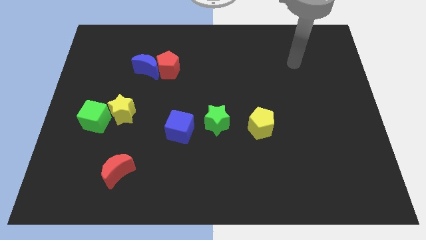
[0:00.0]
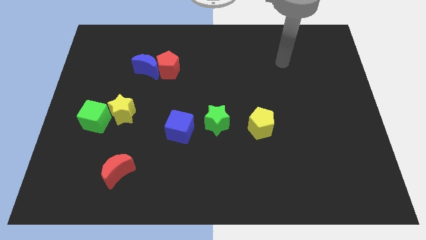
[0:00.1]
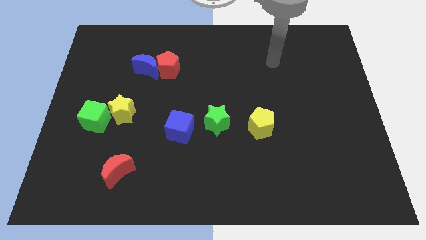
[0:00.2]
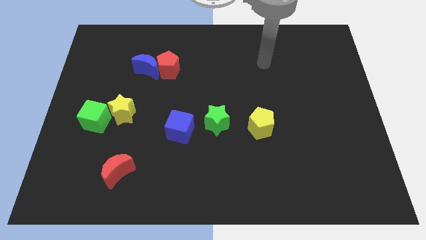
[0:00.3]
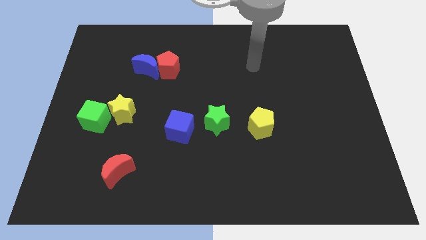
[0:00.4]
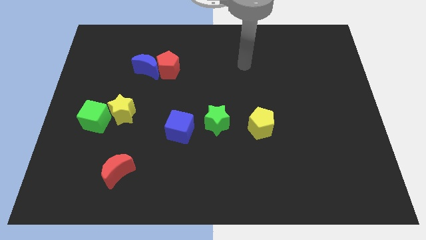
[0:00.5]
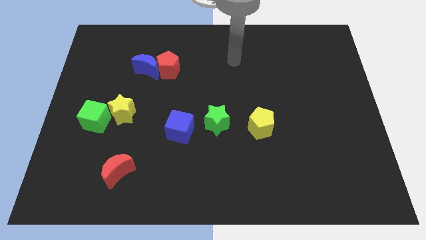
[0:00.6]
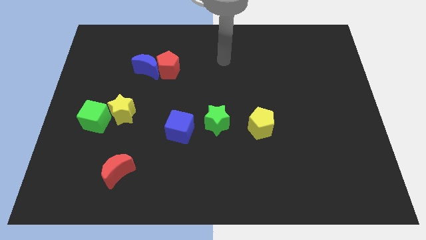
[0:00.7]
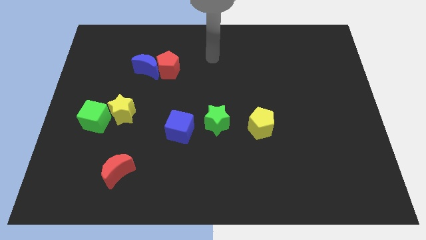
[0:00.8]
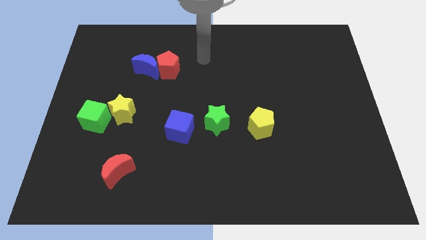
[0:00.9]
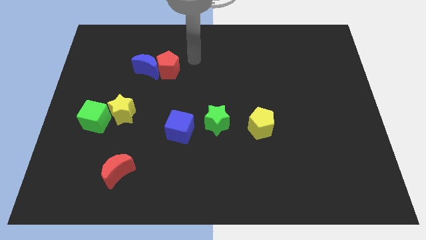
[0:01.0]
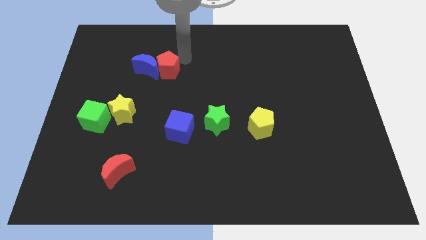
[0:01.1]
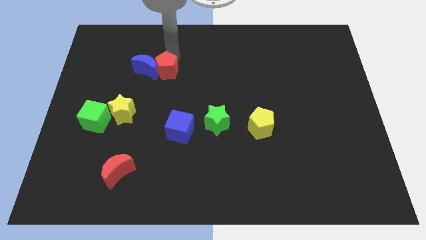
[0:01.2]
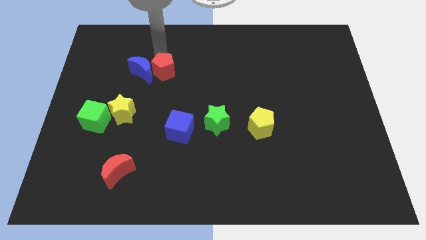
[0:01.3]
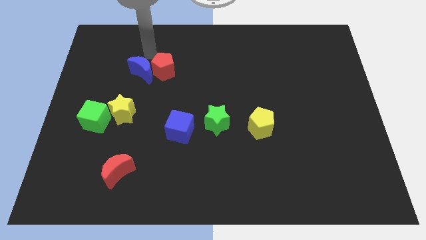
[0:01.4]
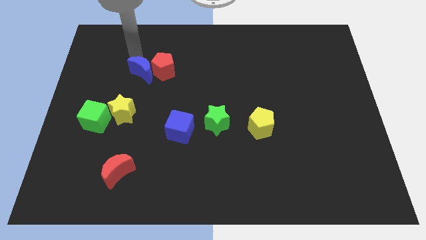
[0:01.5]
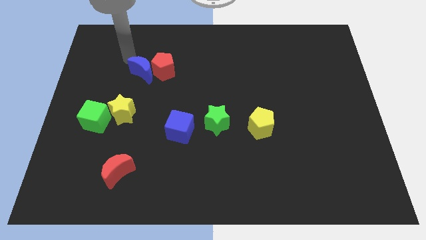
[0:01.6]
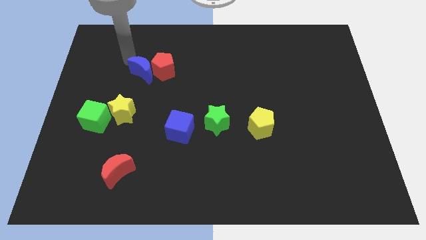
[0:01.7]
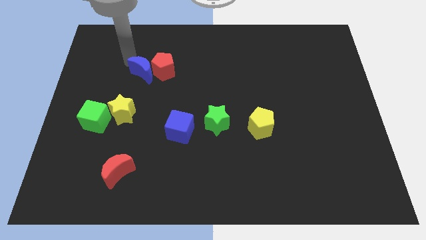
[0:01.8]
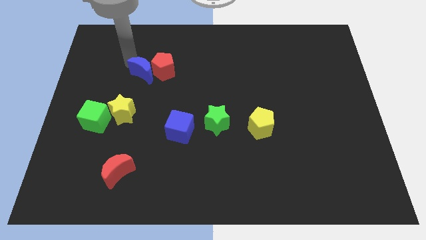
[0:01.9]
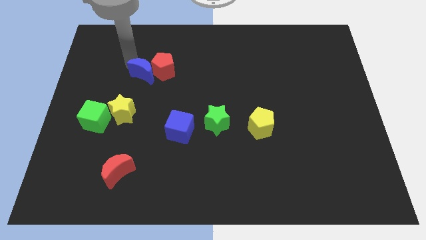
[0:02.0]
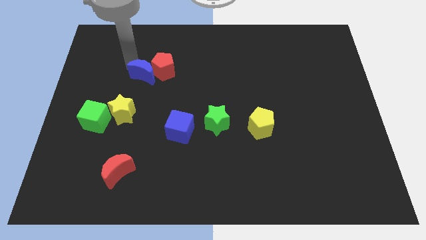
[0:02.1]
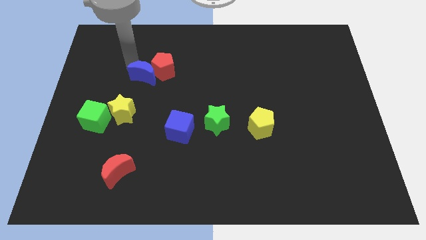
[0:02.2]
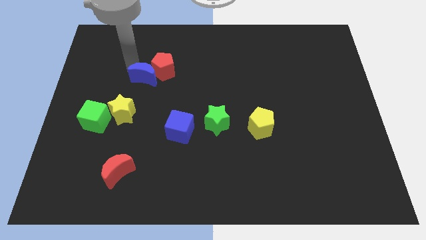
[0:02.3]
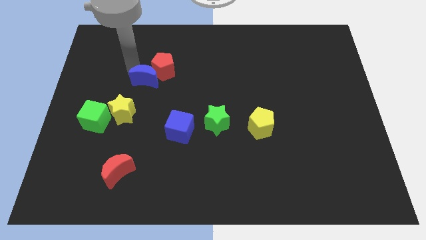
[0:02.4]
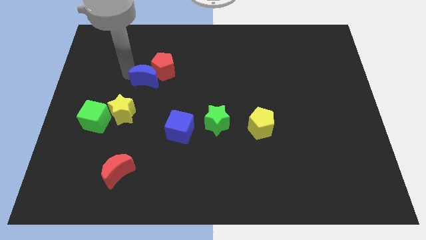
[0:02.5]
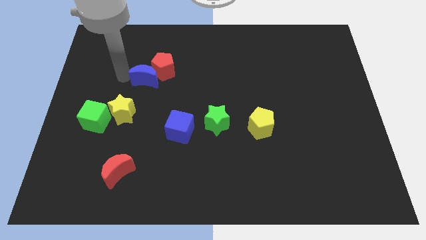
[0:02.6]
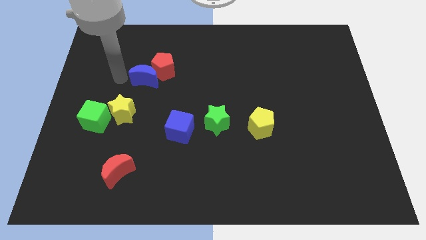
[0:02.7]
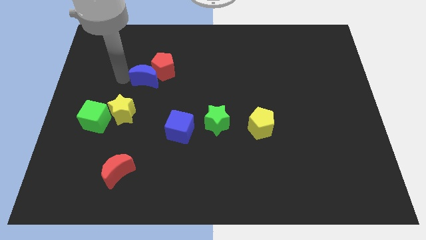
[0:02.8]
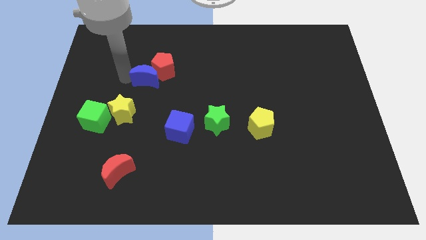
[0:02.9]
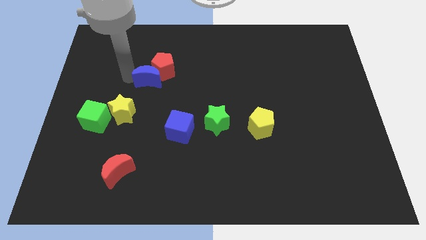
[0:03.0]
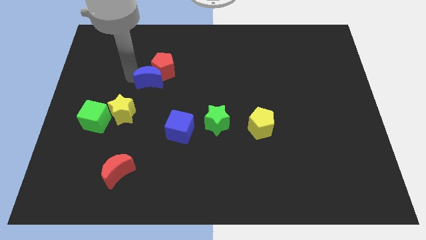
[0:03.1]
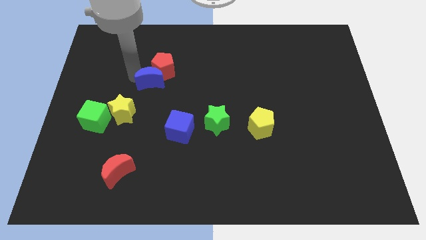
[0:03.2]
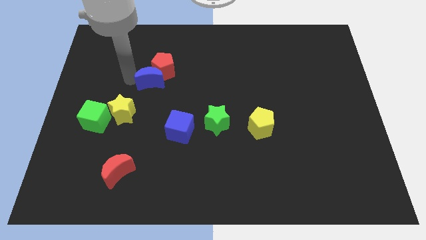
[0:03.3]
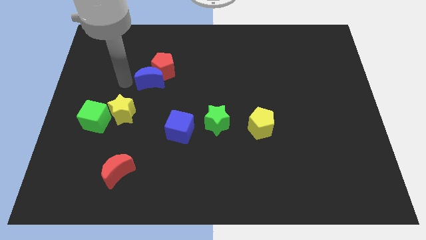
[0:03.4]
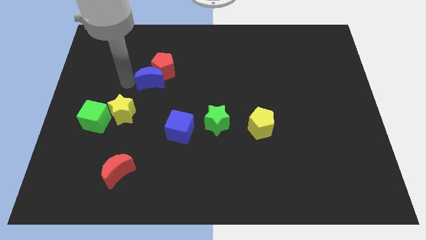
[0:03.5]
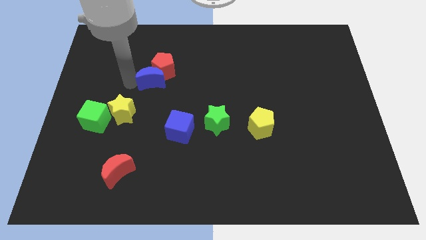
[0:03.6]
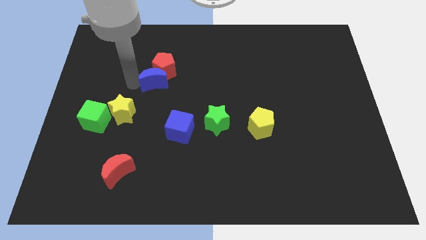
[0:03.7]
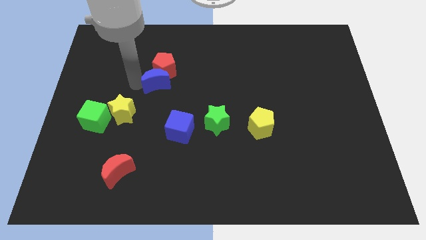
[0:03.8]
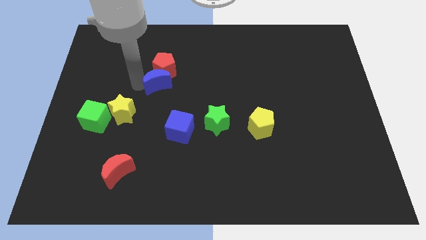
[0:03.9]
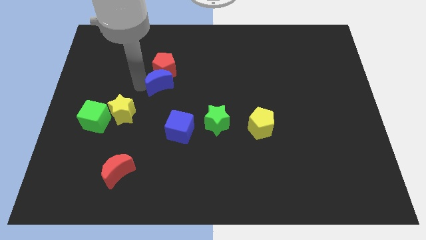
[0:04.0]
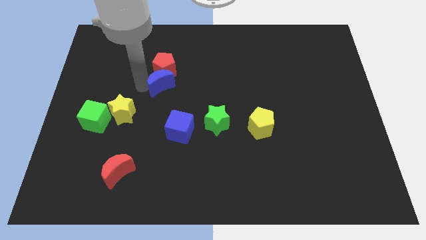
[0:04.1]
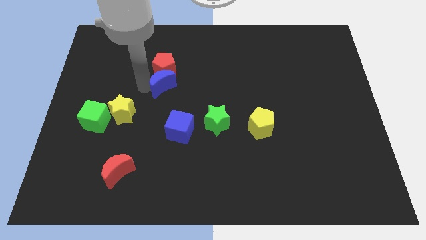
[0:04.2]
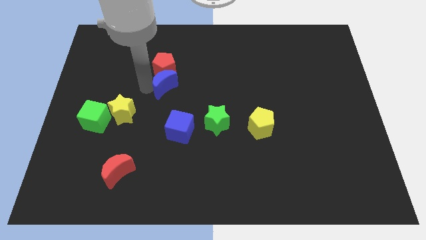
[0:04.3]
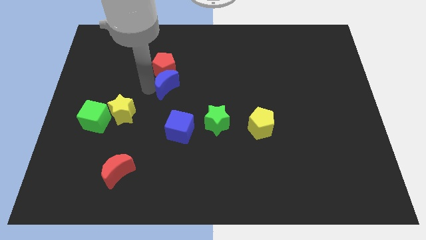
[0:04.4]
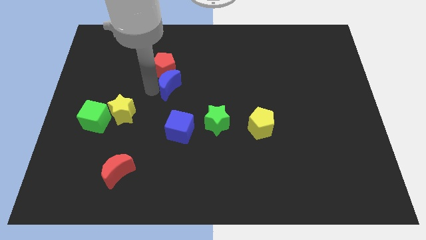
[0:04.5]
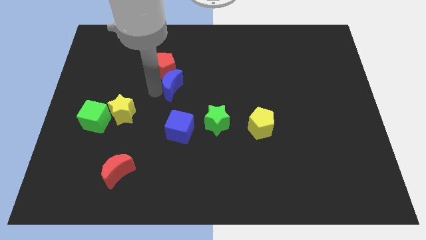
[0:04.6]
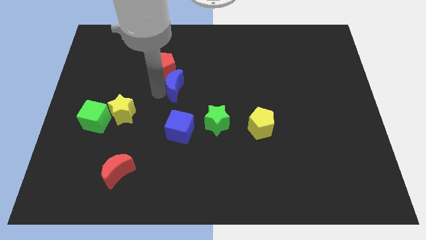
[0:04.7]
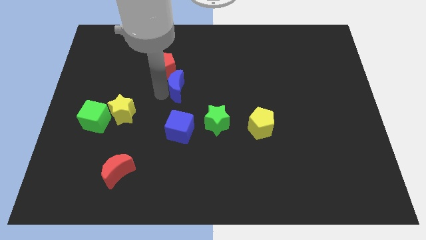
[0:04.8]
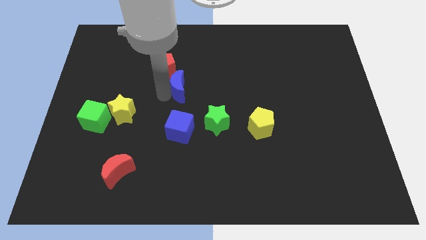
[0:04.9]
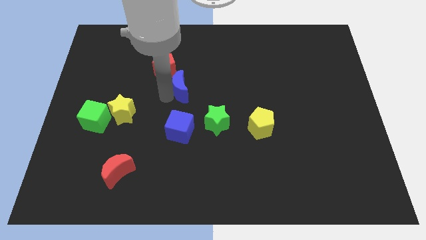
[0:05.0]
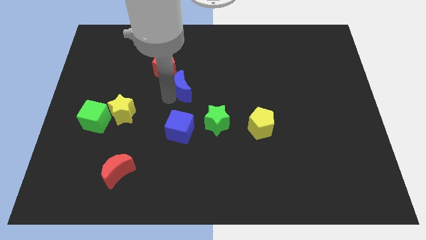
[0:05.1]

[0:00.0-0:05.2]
slightly push the blue moon to the right

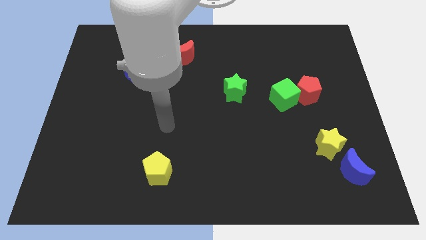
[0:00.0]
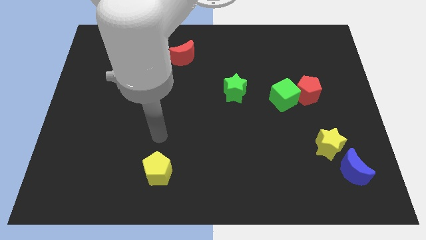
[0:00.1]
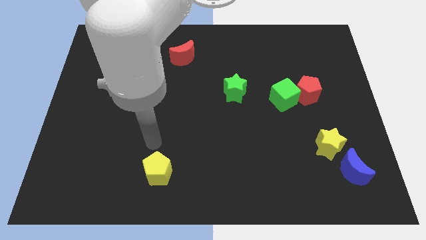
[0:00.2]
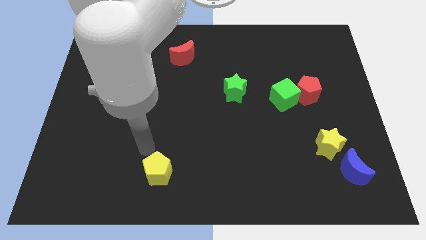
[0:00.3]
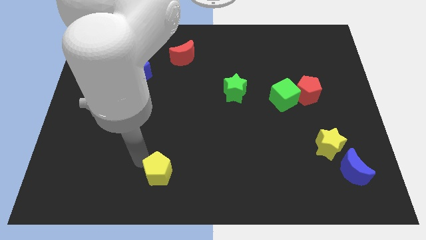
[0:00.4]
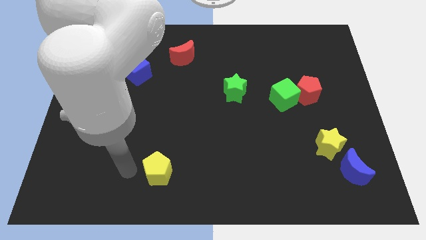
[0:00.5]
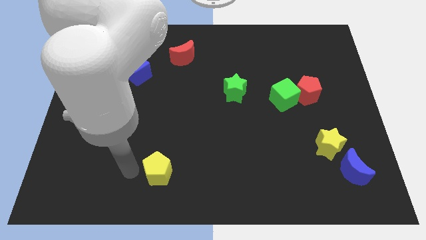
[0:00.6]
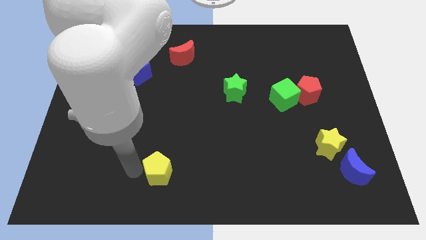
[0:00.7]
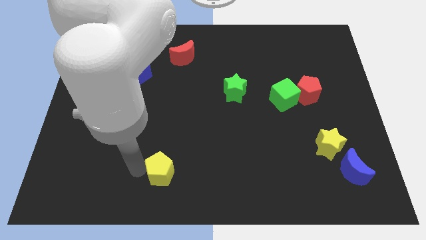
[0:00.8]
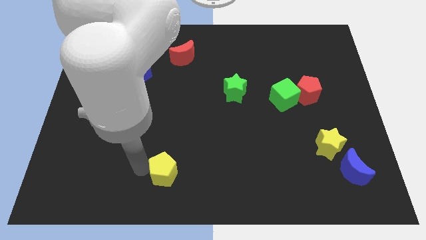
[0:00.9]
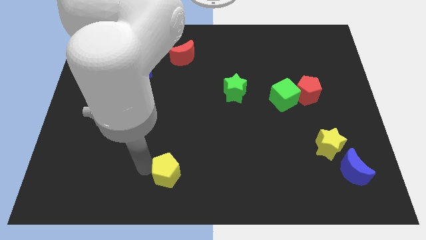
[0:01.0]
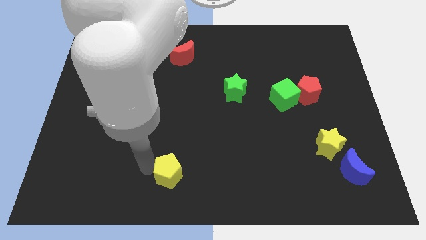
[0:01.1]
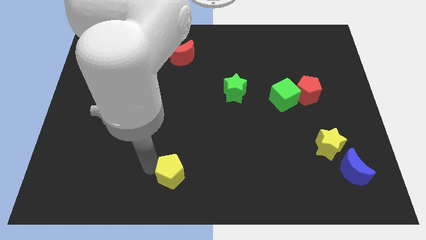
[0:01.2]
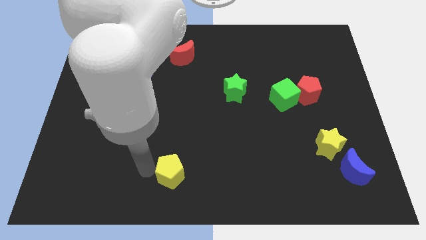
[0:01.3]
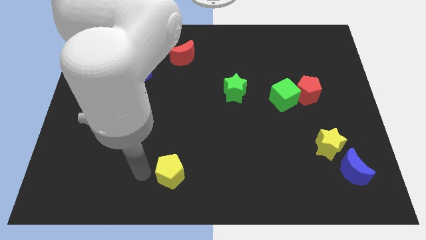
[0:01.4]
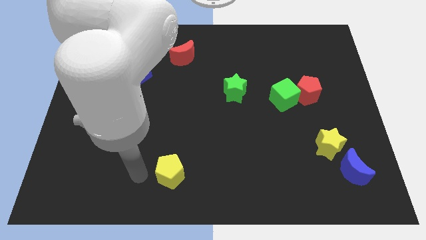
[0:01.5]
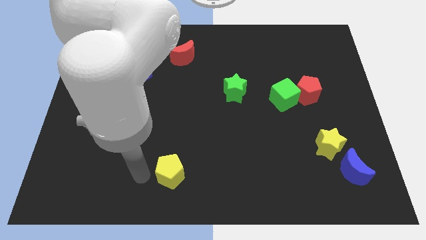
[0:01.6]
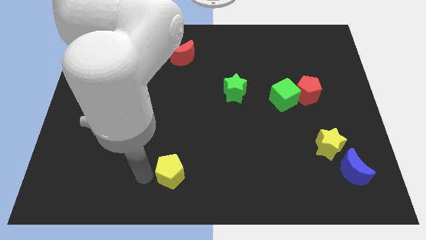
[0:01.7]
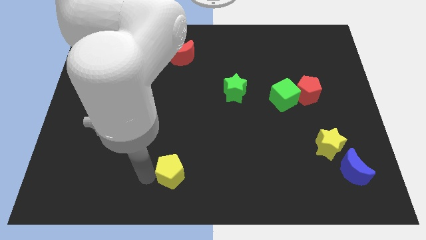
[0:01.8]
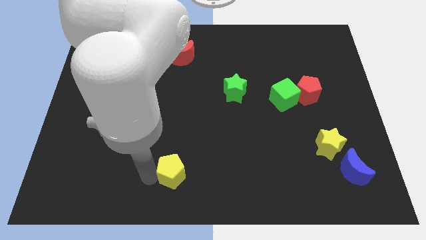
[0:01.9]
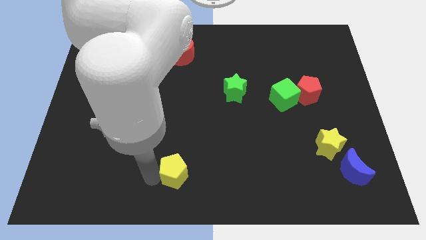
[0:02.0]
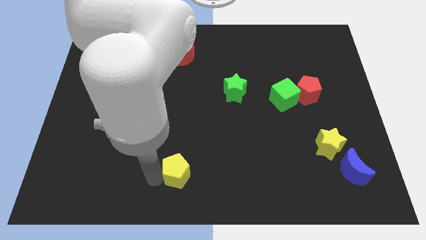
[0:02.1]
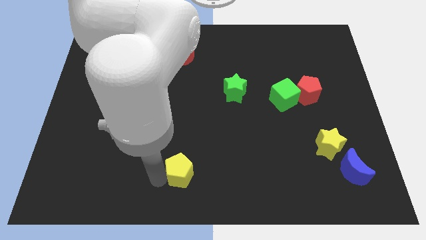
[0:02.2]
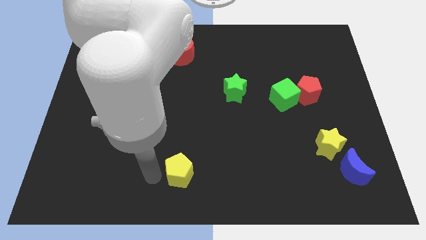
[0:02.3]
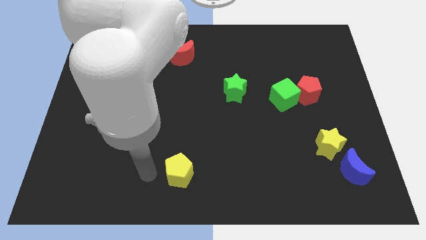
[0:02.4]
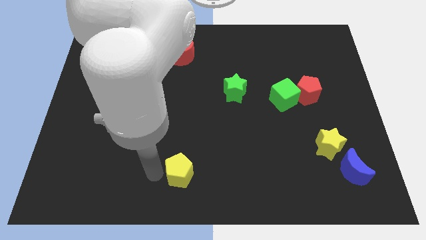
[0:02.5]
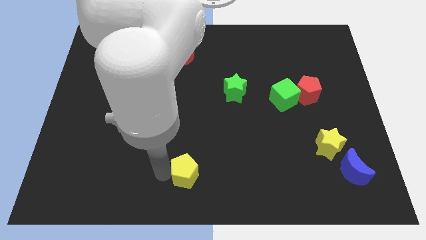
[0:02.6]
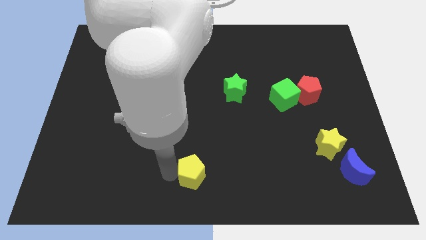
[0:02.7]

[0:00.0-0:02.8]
slide the yellow pentagon right somewhat
